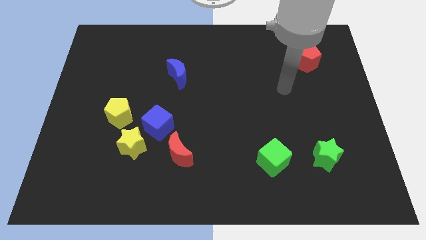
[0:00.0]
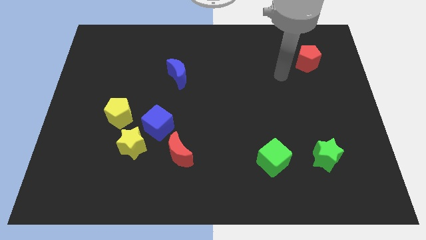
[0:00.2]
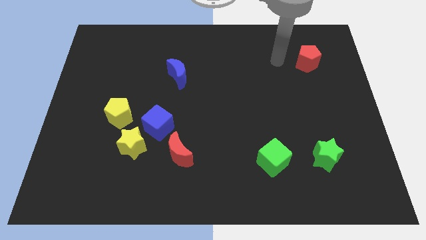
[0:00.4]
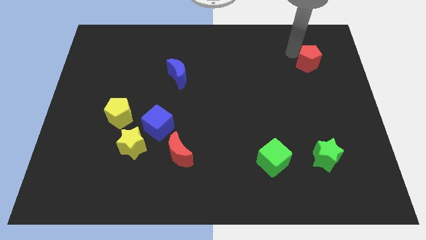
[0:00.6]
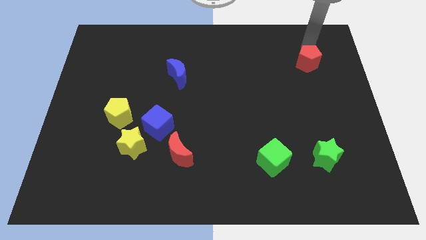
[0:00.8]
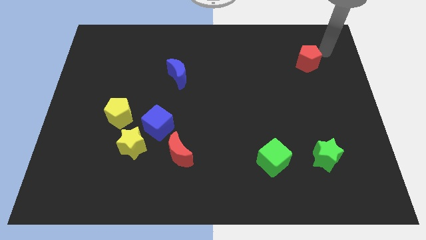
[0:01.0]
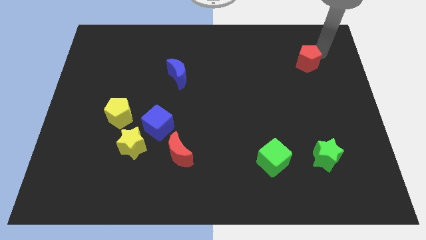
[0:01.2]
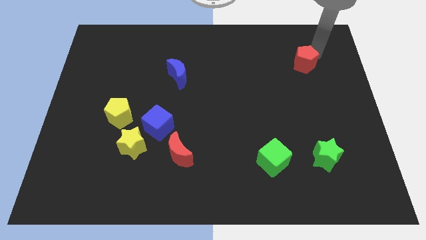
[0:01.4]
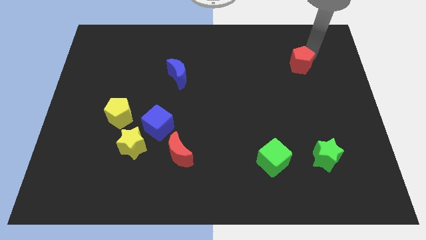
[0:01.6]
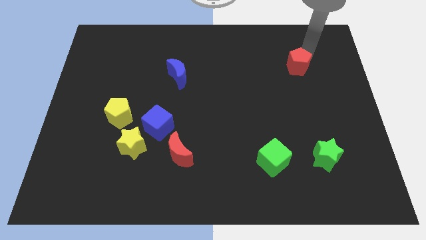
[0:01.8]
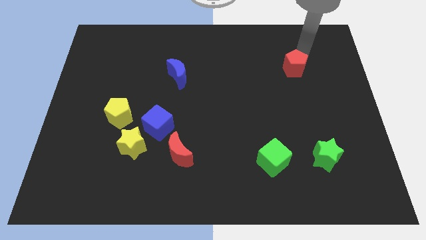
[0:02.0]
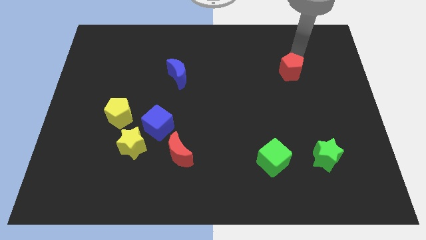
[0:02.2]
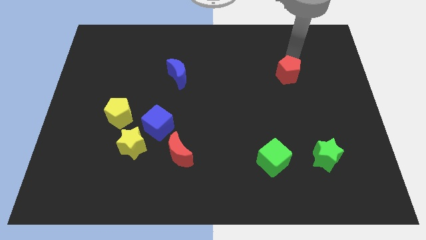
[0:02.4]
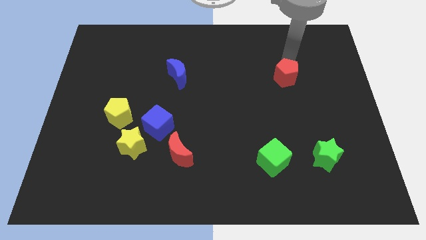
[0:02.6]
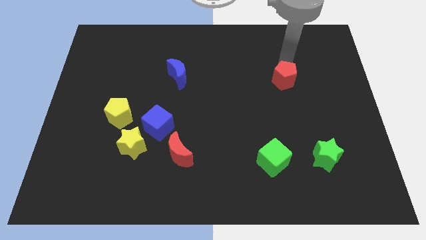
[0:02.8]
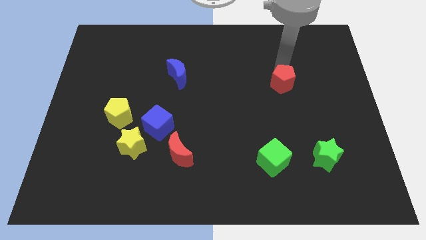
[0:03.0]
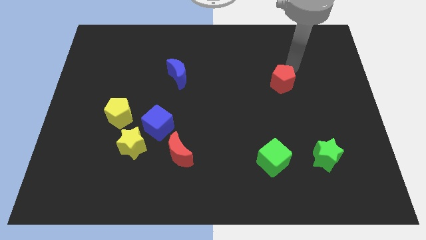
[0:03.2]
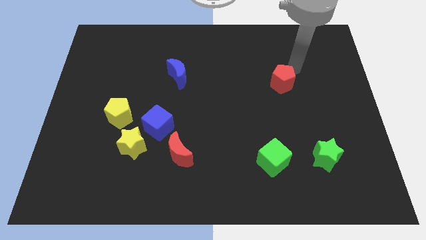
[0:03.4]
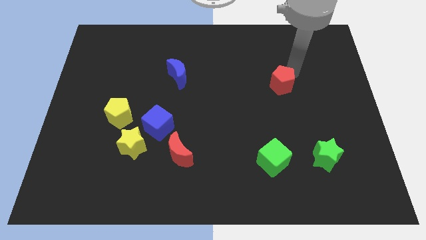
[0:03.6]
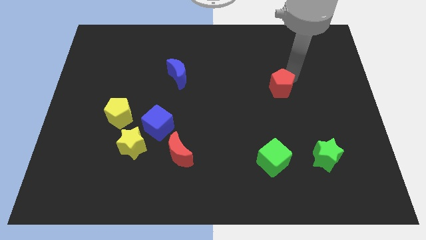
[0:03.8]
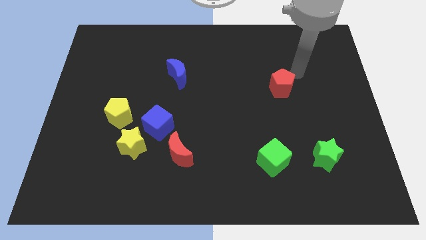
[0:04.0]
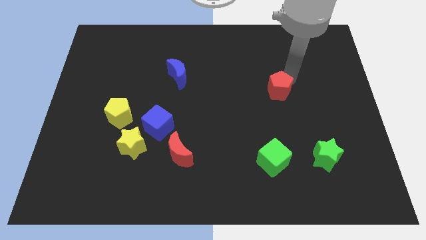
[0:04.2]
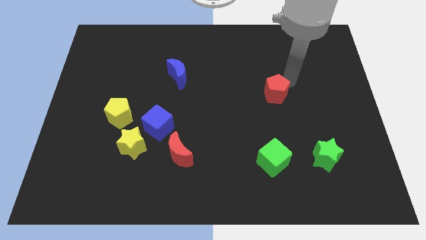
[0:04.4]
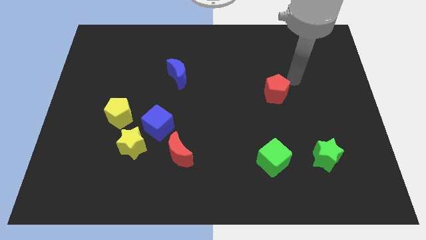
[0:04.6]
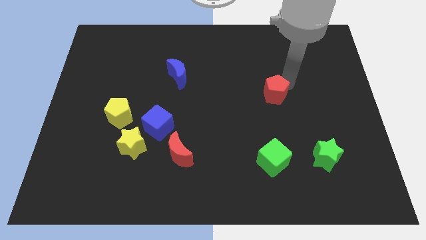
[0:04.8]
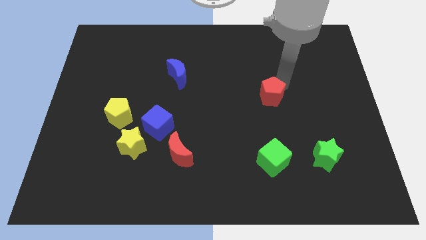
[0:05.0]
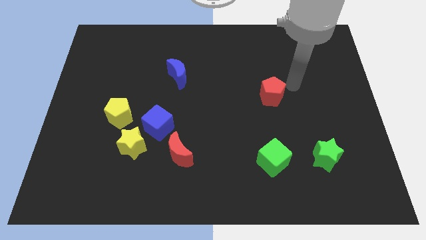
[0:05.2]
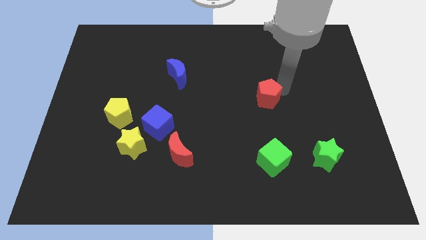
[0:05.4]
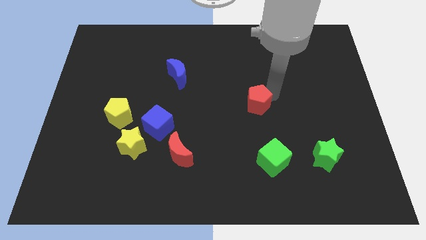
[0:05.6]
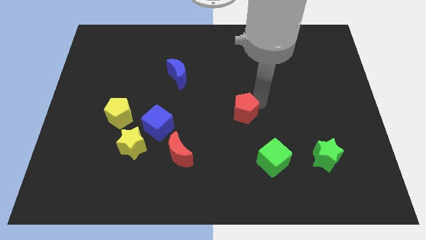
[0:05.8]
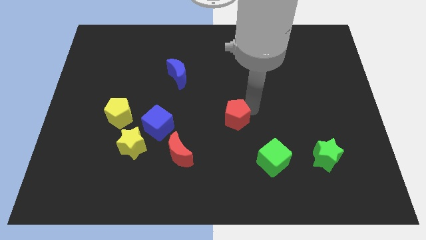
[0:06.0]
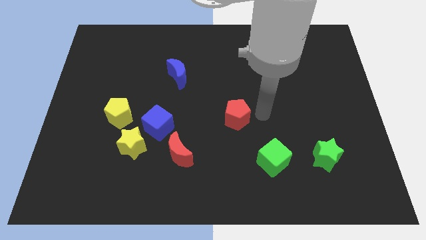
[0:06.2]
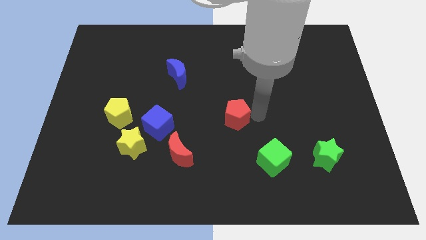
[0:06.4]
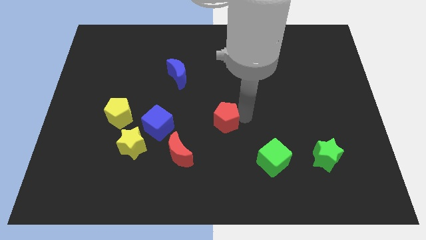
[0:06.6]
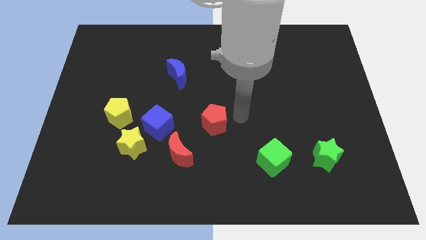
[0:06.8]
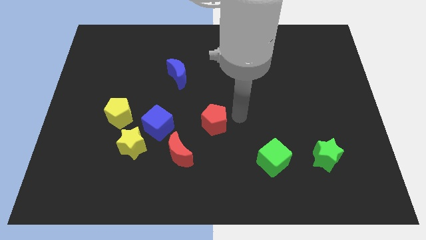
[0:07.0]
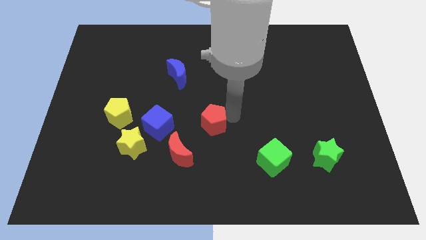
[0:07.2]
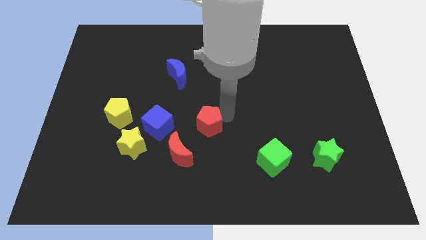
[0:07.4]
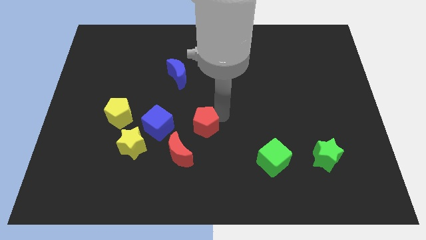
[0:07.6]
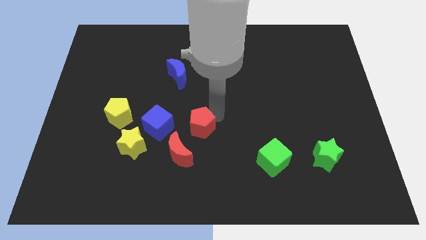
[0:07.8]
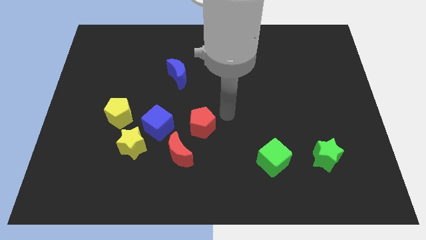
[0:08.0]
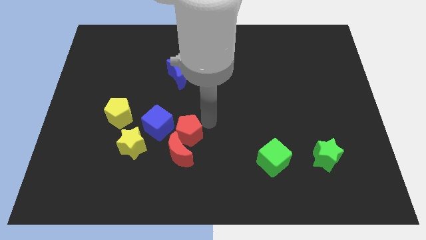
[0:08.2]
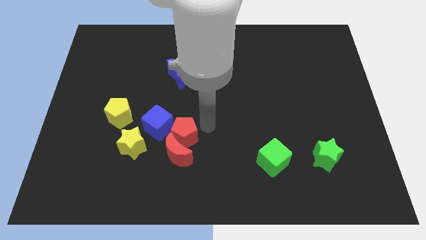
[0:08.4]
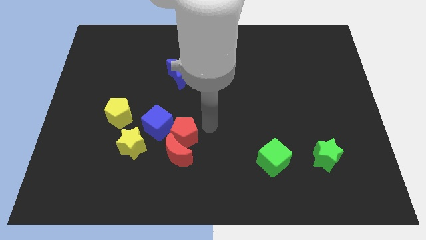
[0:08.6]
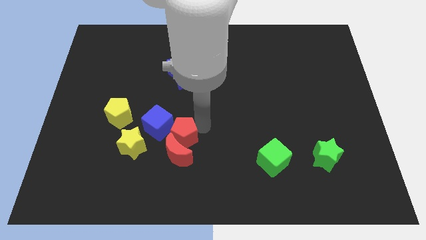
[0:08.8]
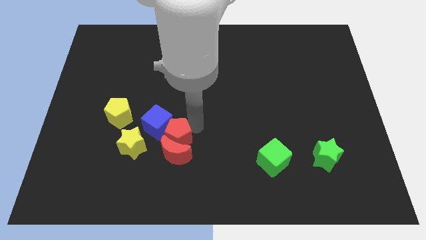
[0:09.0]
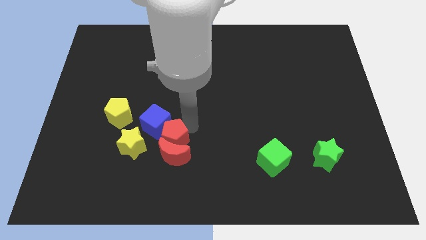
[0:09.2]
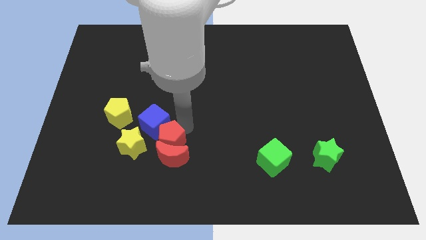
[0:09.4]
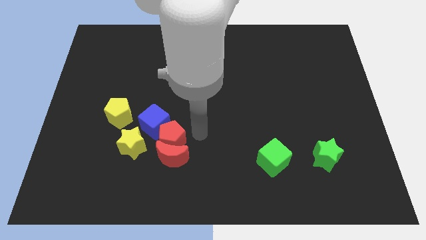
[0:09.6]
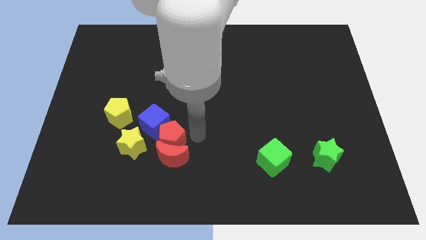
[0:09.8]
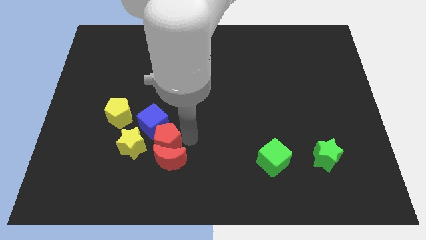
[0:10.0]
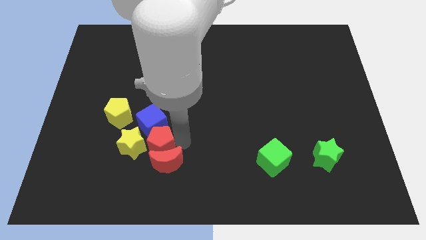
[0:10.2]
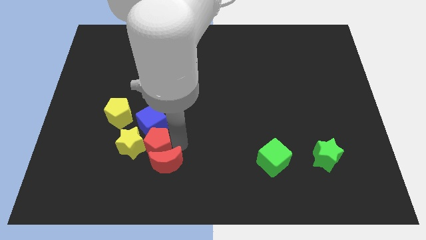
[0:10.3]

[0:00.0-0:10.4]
move the red pentagon next to the yellow star

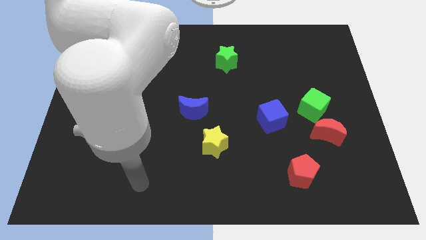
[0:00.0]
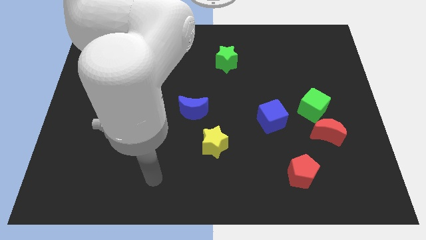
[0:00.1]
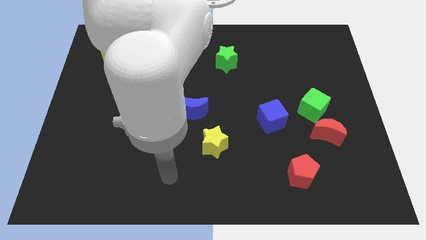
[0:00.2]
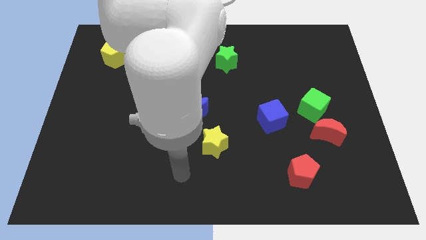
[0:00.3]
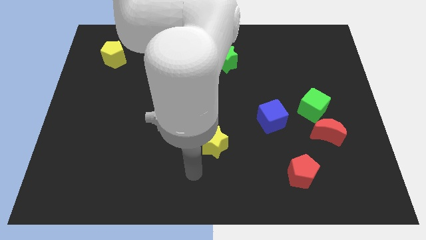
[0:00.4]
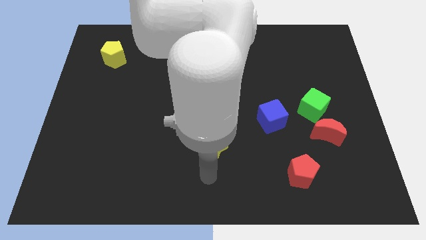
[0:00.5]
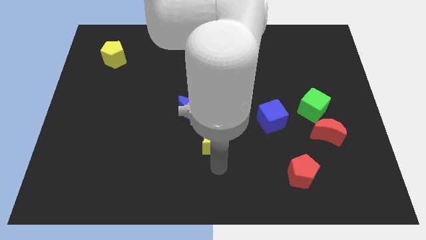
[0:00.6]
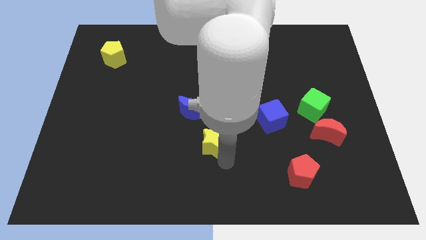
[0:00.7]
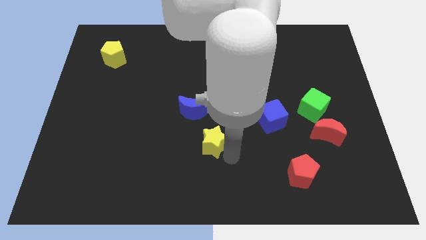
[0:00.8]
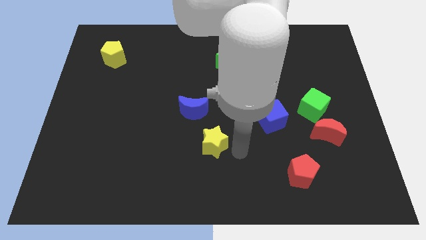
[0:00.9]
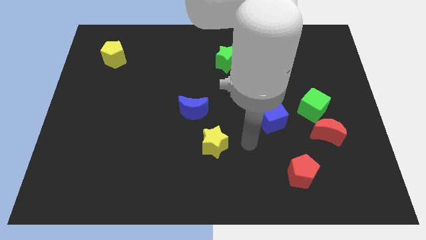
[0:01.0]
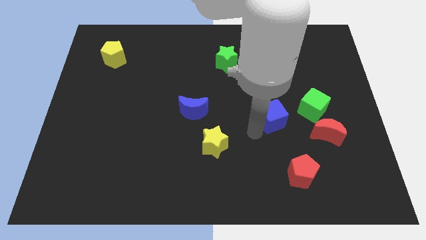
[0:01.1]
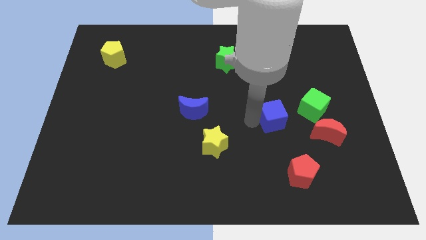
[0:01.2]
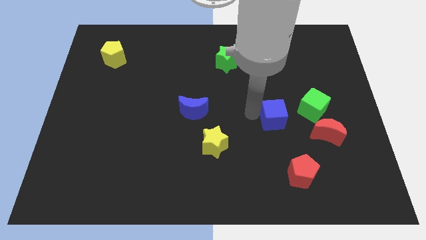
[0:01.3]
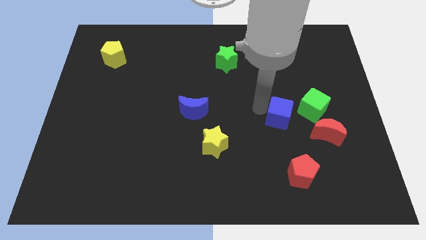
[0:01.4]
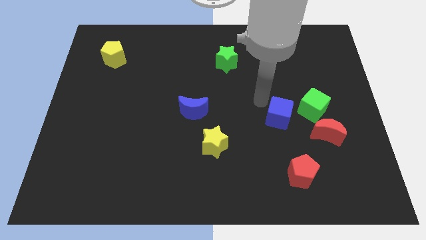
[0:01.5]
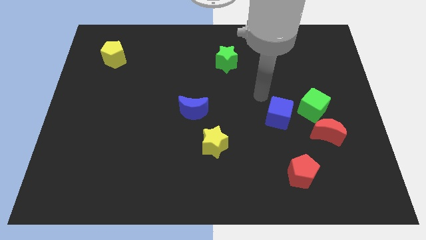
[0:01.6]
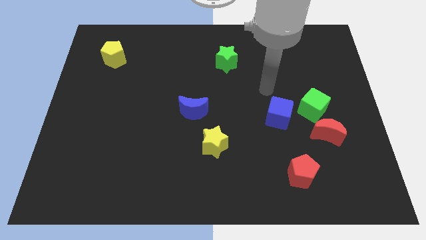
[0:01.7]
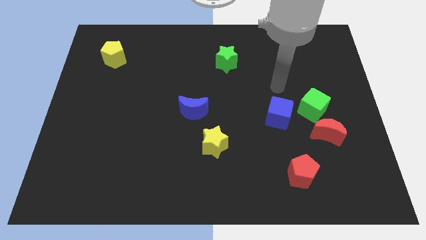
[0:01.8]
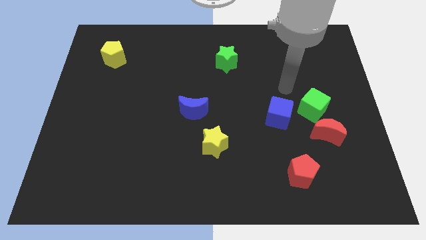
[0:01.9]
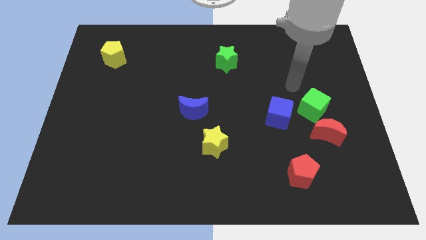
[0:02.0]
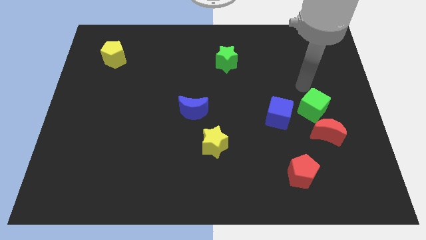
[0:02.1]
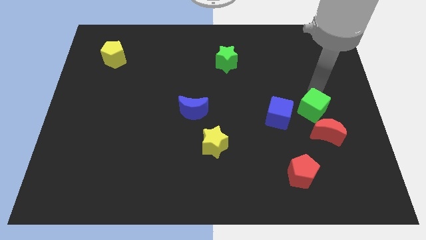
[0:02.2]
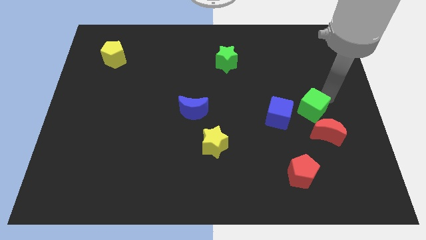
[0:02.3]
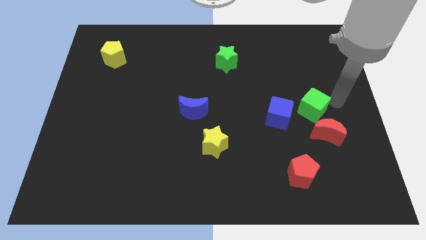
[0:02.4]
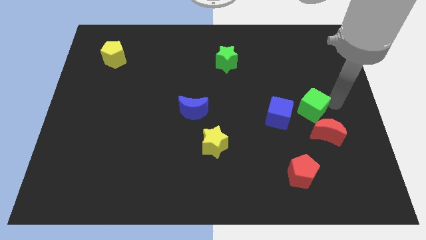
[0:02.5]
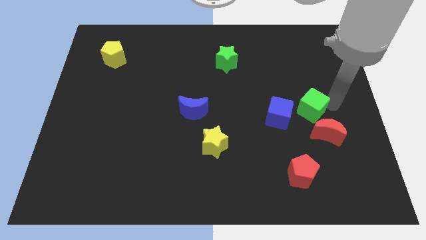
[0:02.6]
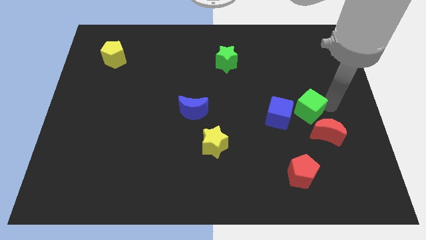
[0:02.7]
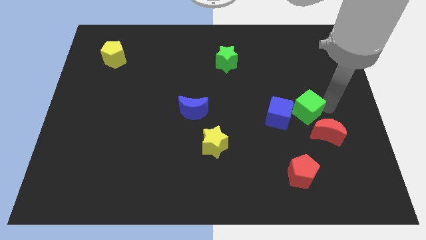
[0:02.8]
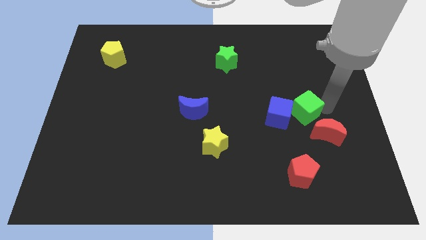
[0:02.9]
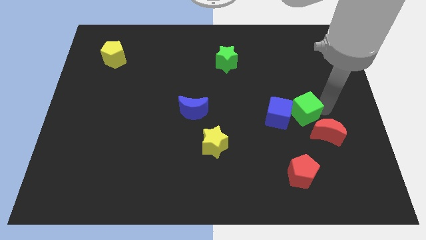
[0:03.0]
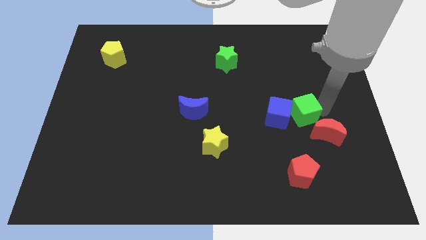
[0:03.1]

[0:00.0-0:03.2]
slide the green cube to the blue cube
